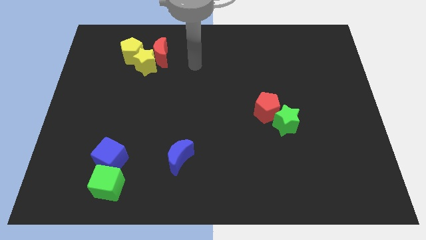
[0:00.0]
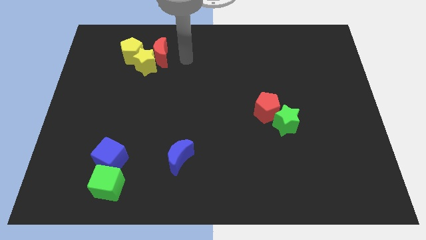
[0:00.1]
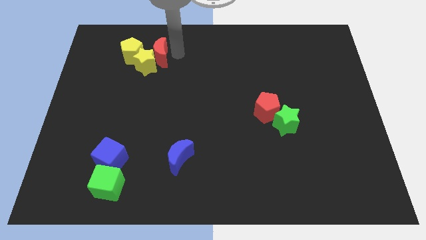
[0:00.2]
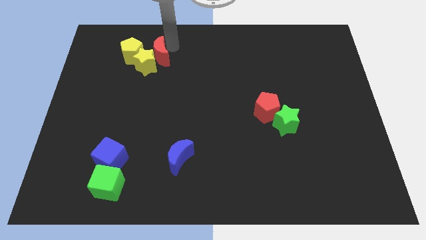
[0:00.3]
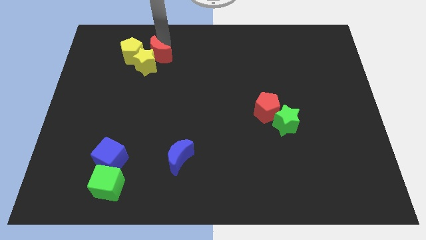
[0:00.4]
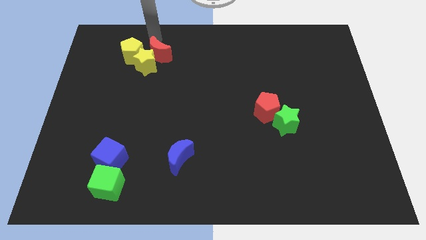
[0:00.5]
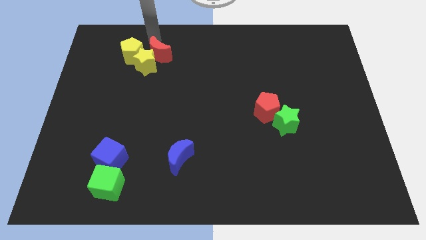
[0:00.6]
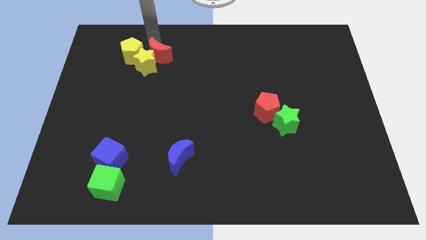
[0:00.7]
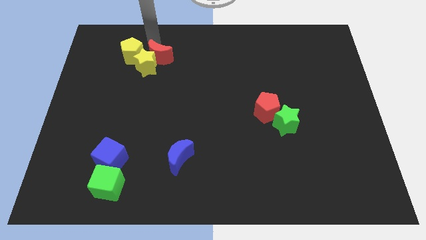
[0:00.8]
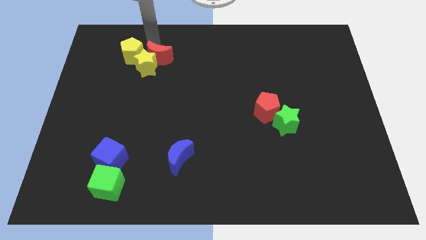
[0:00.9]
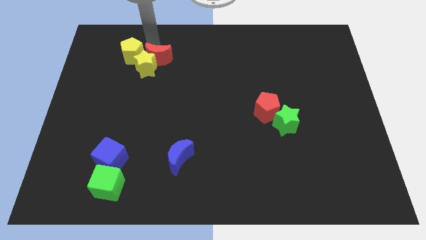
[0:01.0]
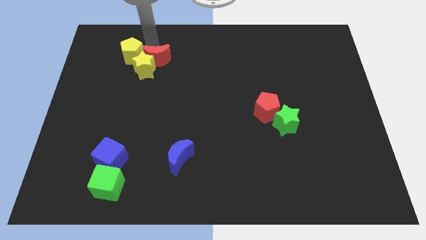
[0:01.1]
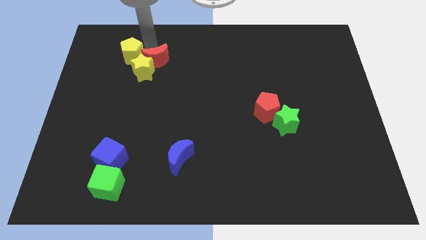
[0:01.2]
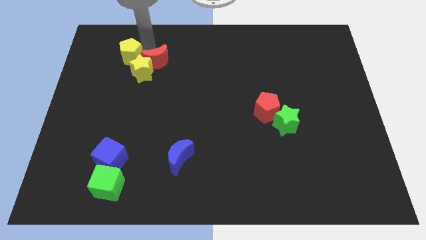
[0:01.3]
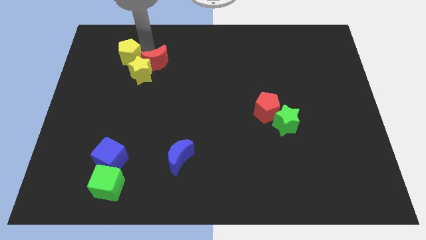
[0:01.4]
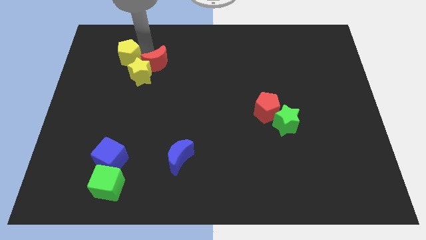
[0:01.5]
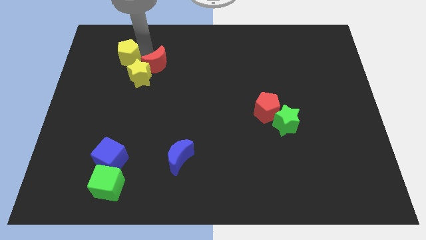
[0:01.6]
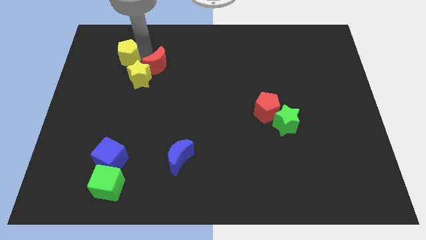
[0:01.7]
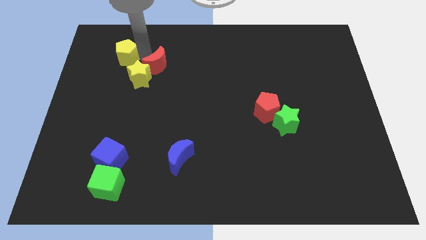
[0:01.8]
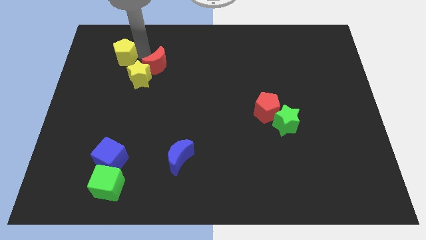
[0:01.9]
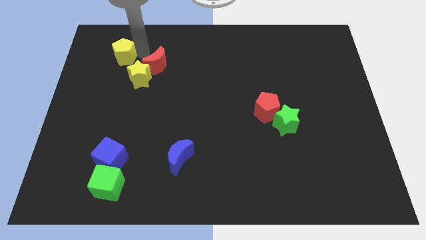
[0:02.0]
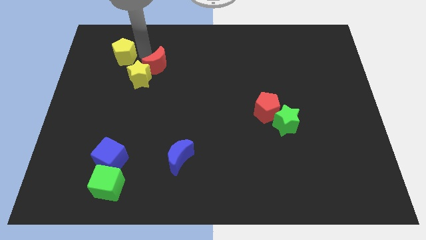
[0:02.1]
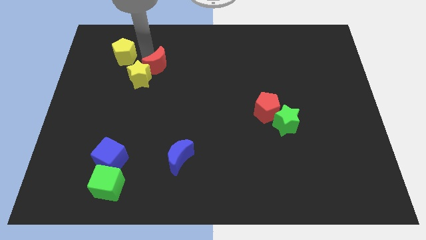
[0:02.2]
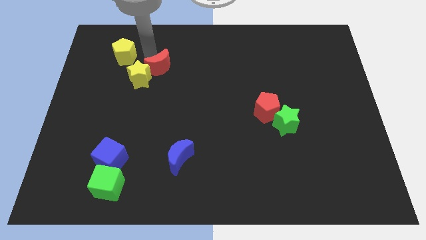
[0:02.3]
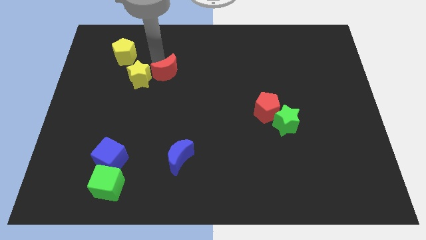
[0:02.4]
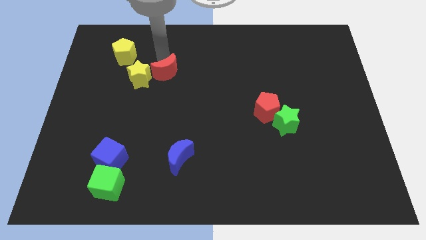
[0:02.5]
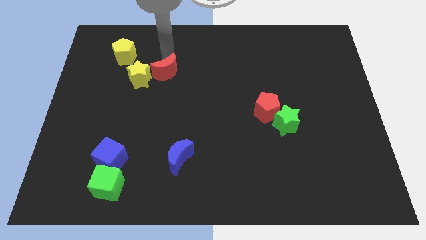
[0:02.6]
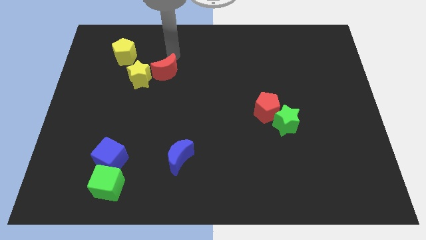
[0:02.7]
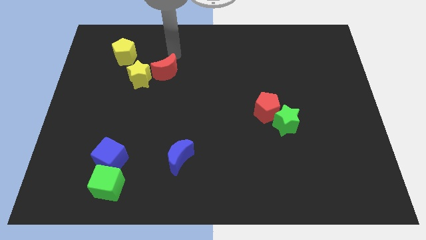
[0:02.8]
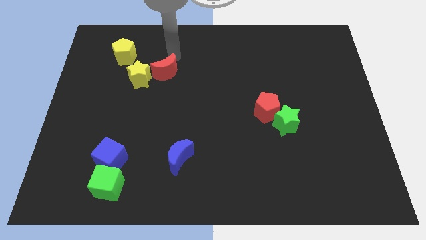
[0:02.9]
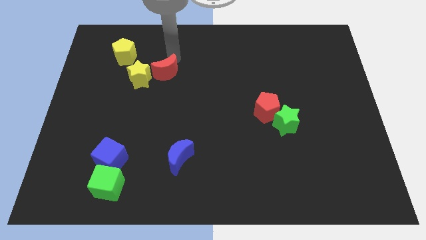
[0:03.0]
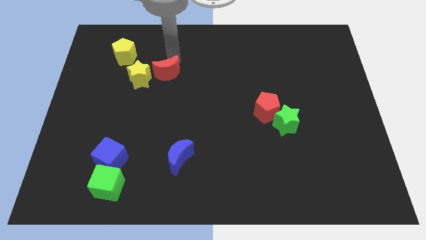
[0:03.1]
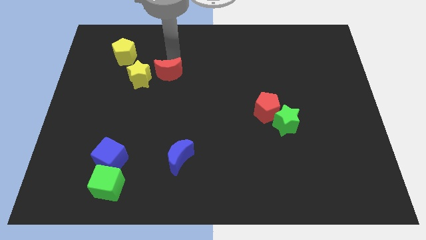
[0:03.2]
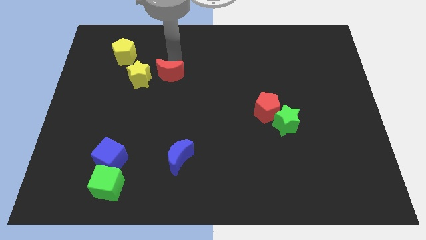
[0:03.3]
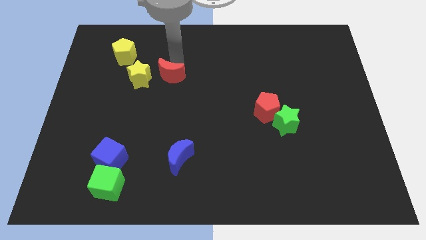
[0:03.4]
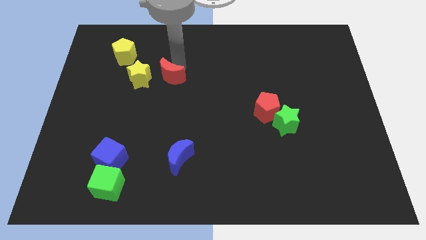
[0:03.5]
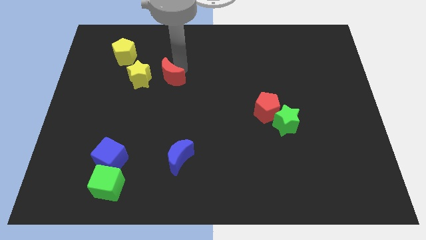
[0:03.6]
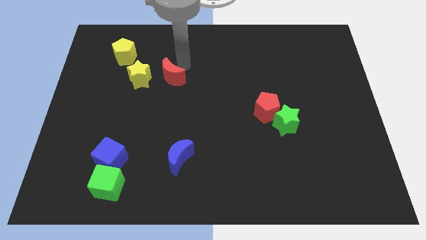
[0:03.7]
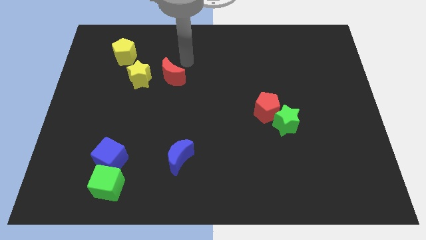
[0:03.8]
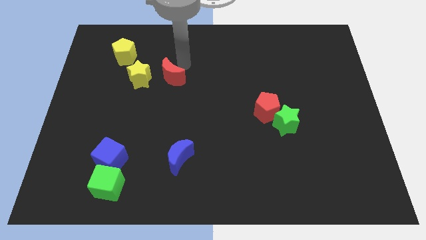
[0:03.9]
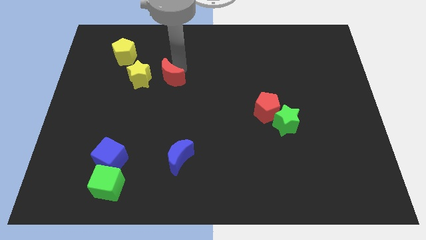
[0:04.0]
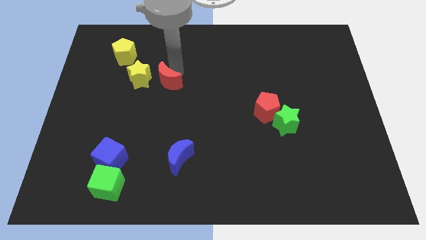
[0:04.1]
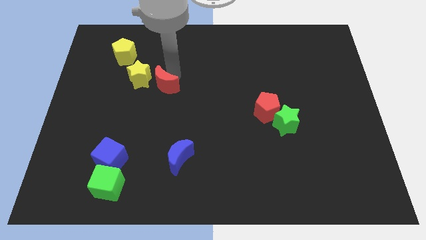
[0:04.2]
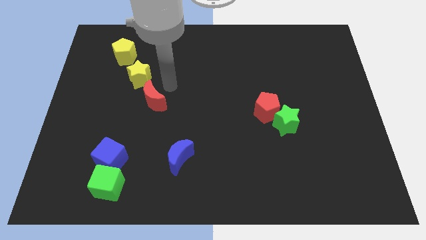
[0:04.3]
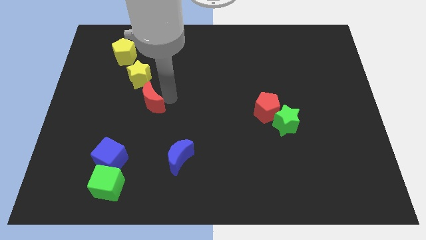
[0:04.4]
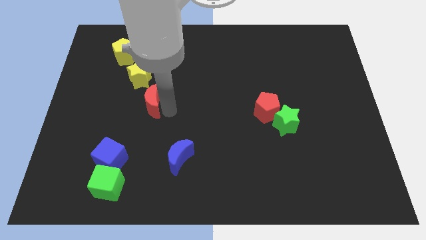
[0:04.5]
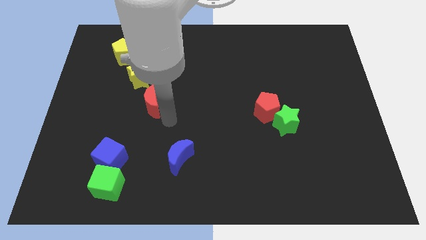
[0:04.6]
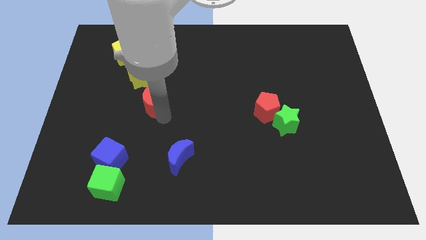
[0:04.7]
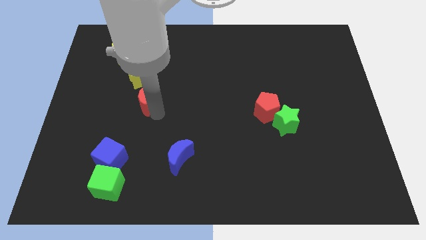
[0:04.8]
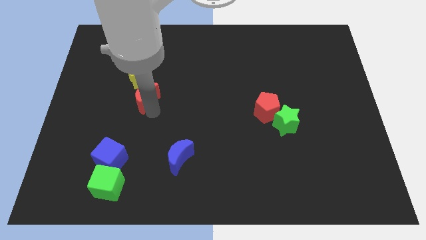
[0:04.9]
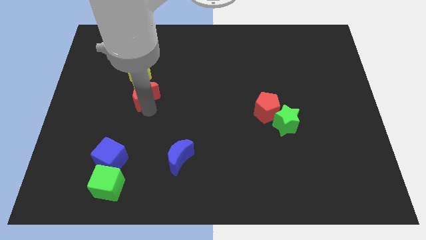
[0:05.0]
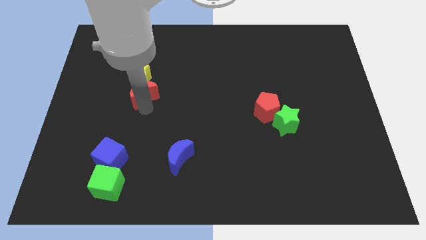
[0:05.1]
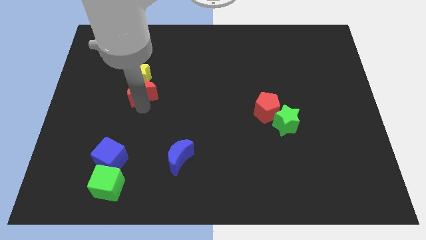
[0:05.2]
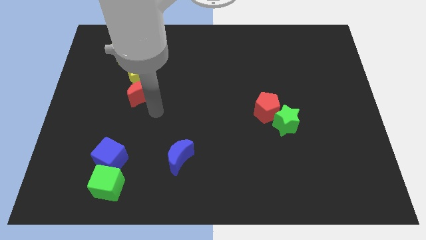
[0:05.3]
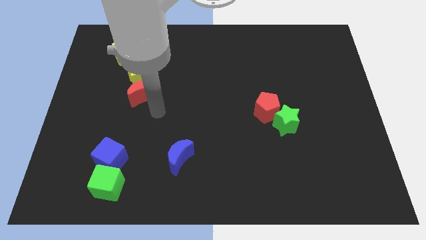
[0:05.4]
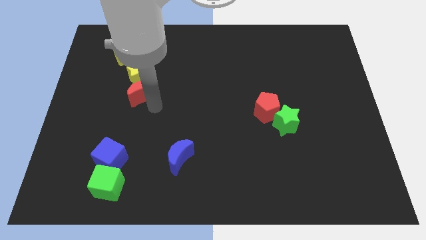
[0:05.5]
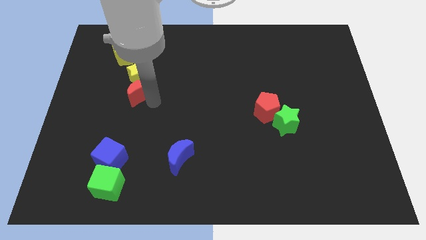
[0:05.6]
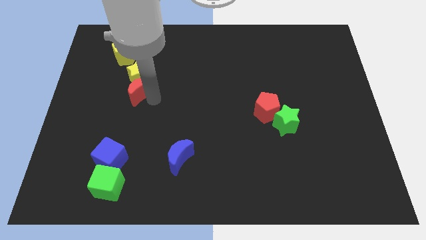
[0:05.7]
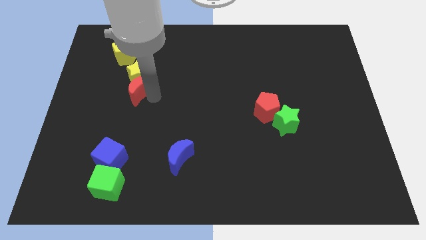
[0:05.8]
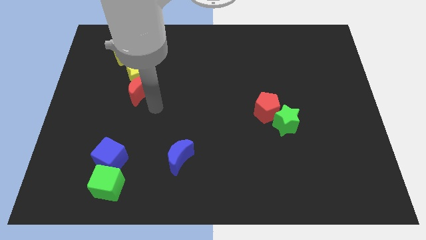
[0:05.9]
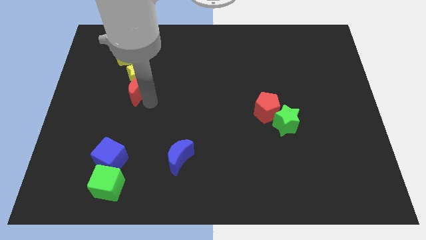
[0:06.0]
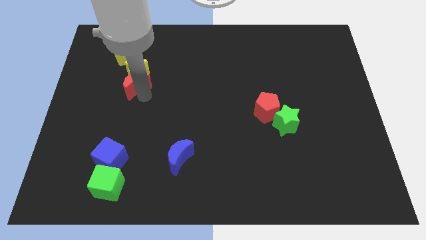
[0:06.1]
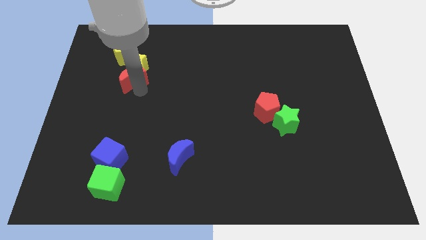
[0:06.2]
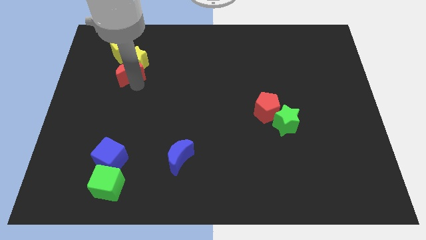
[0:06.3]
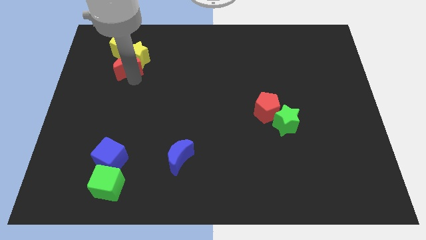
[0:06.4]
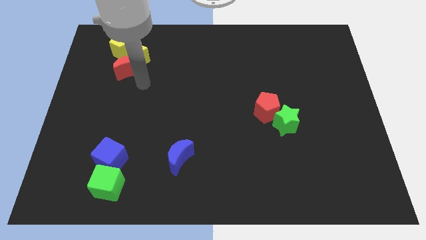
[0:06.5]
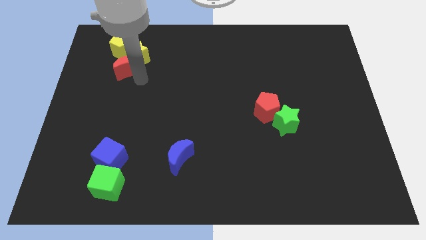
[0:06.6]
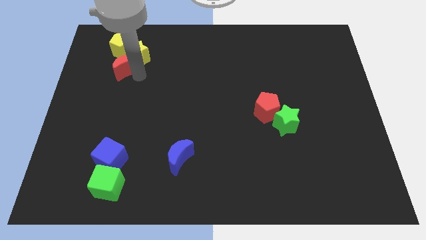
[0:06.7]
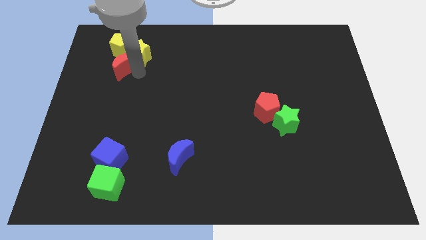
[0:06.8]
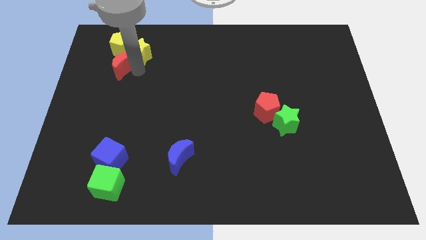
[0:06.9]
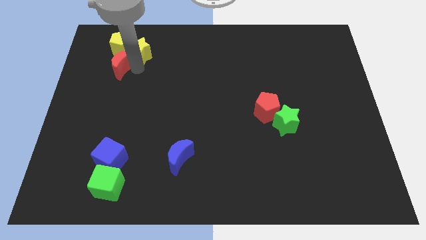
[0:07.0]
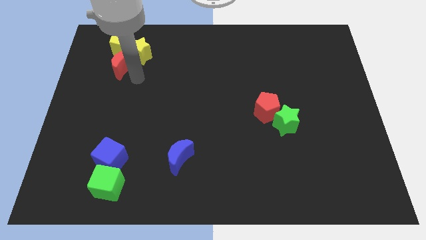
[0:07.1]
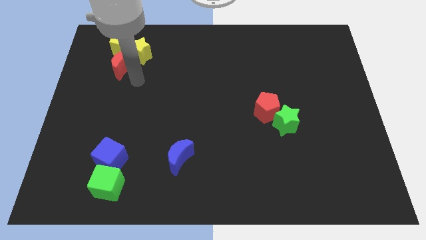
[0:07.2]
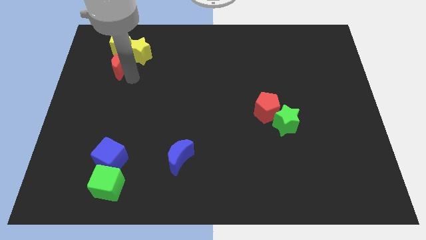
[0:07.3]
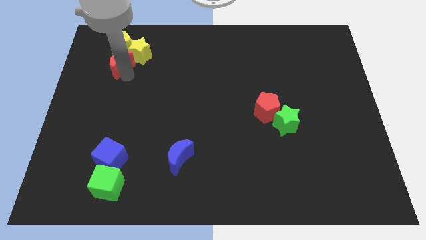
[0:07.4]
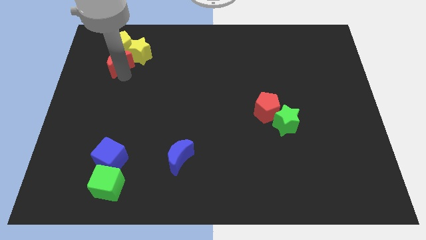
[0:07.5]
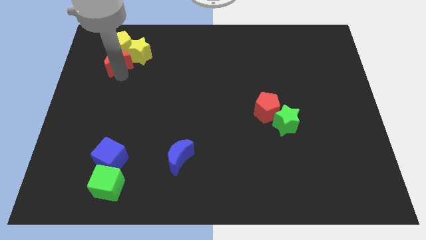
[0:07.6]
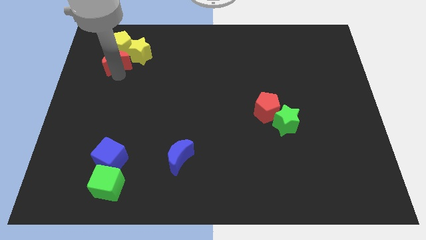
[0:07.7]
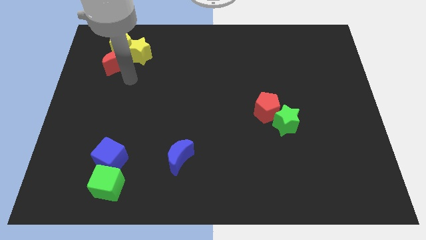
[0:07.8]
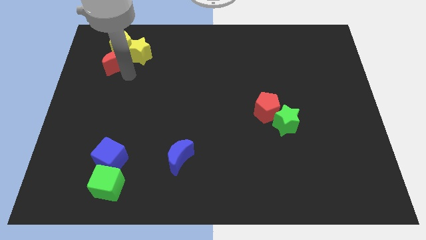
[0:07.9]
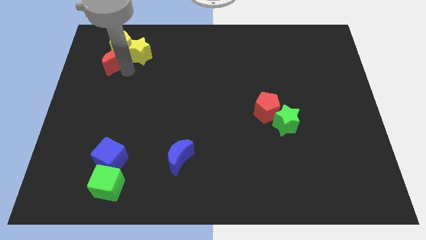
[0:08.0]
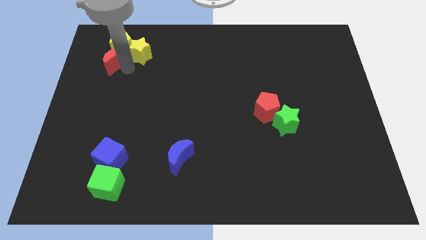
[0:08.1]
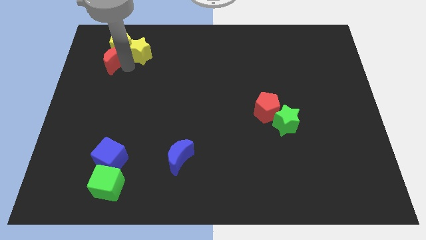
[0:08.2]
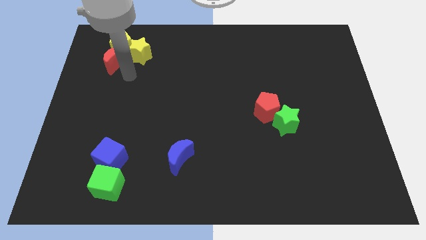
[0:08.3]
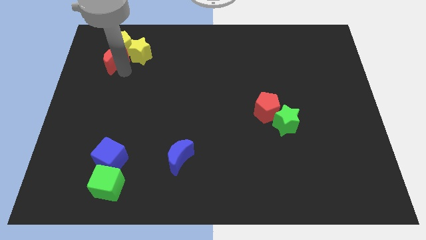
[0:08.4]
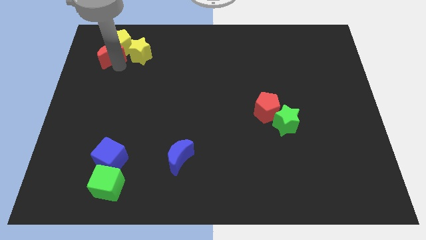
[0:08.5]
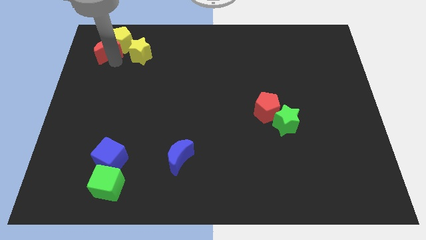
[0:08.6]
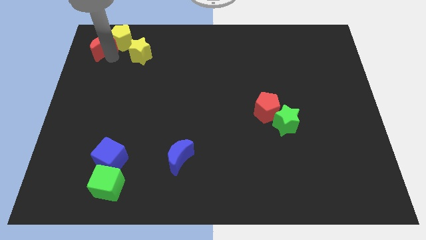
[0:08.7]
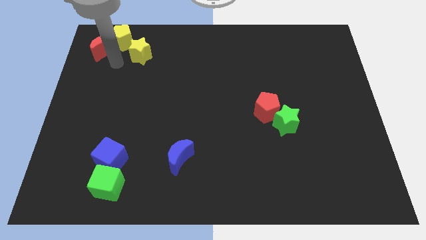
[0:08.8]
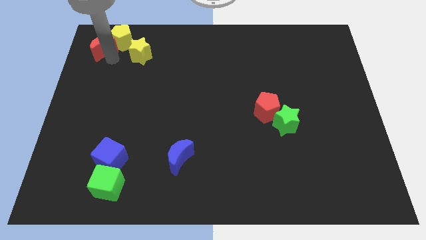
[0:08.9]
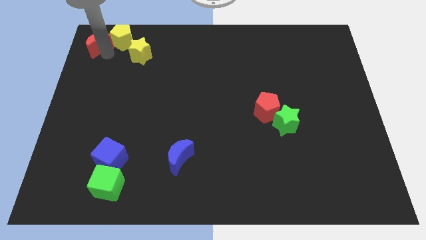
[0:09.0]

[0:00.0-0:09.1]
push the red moon to the top left of the board
